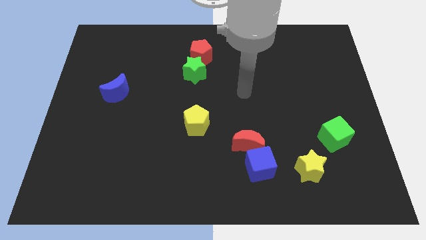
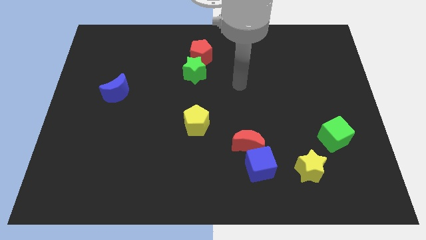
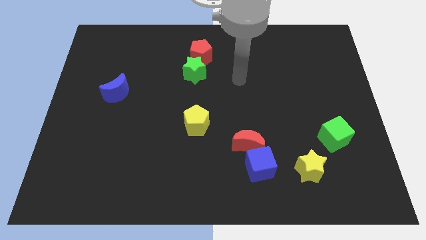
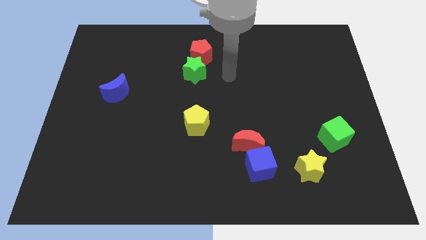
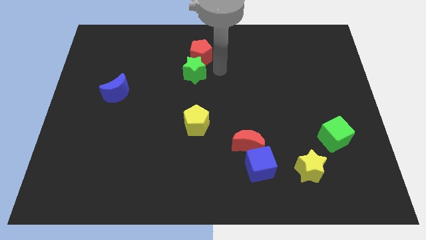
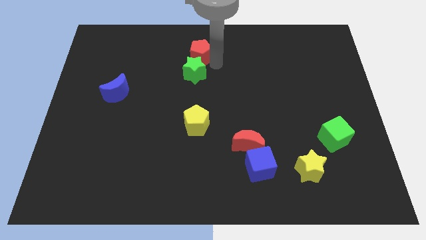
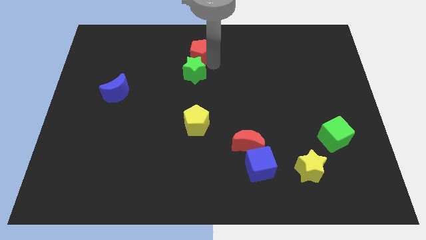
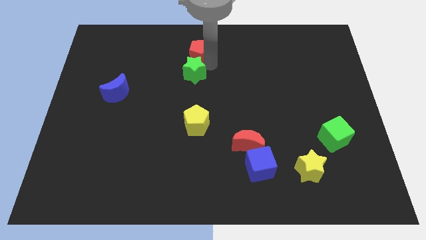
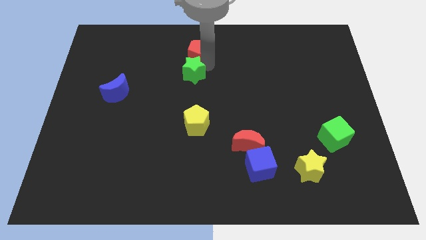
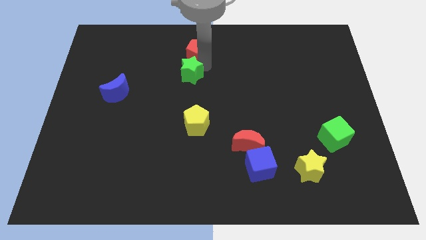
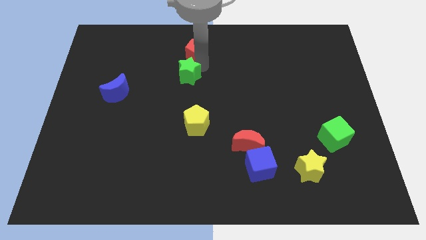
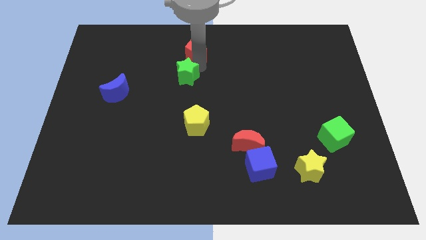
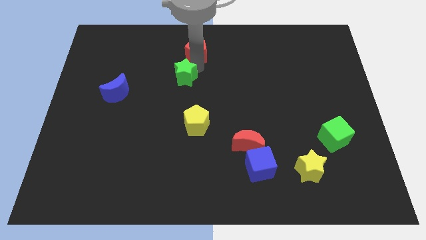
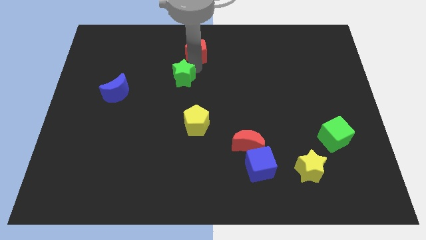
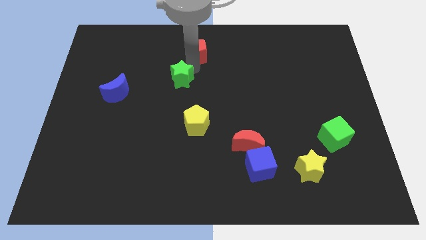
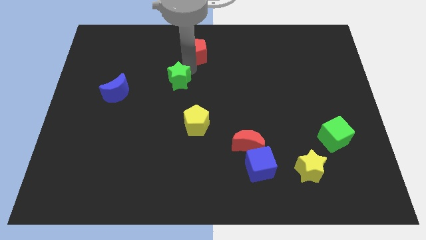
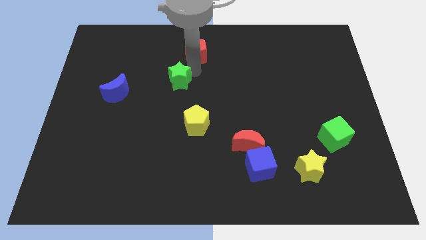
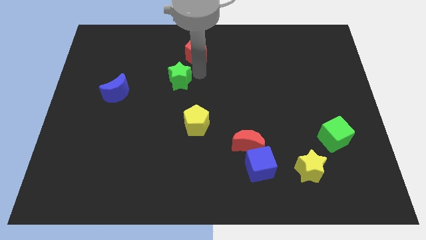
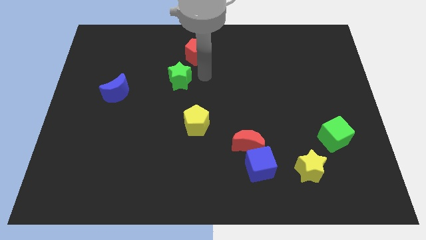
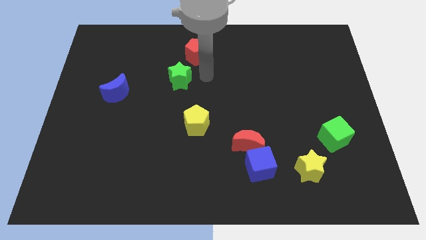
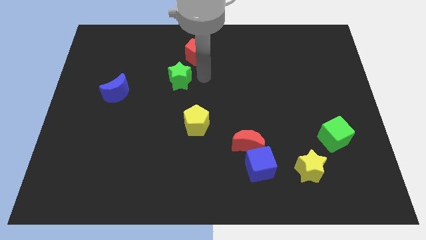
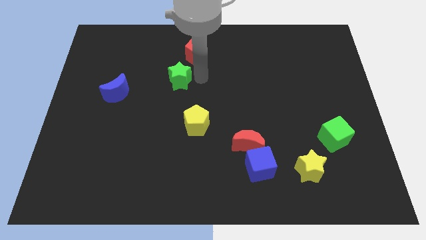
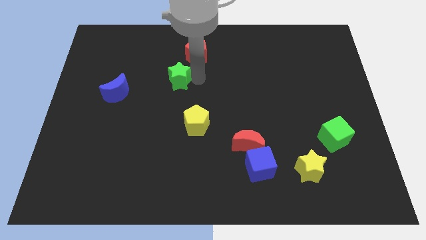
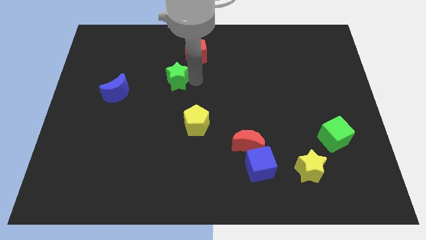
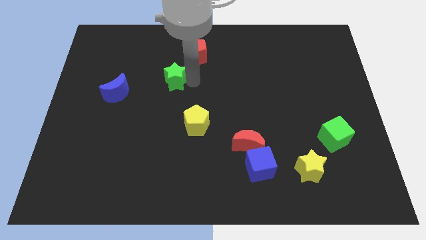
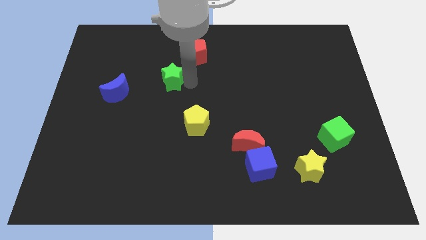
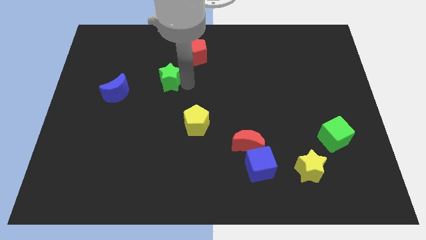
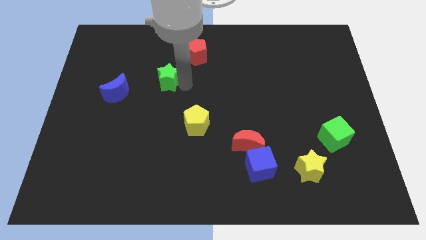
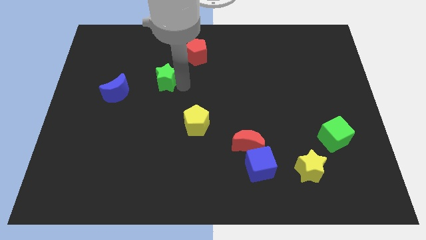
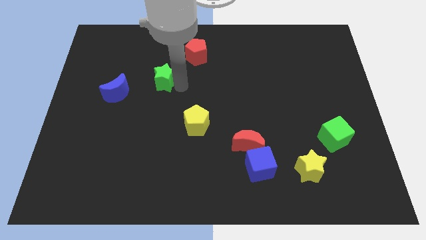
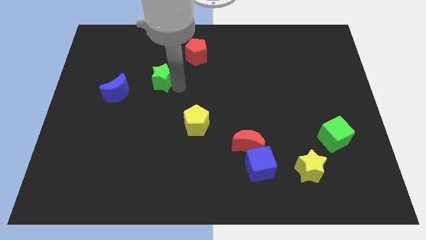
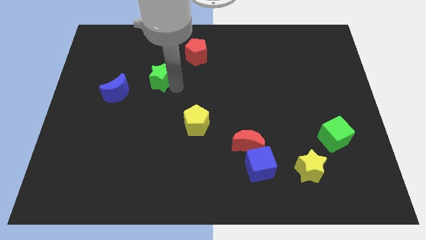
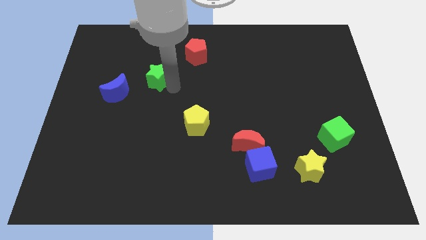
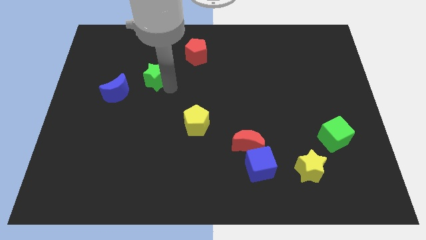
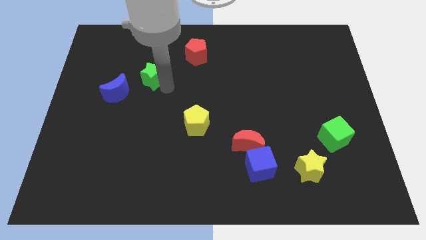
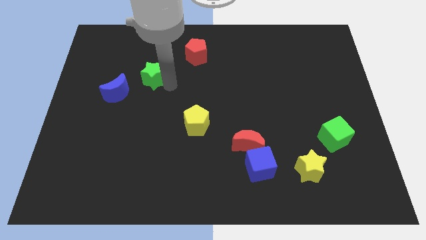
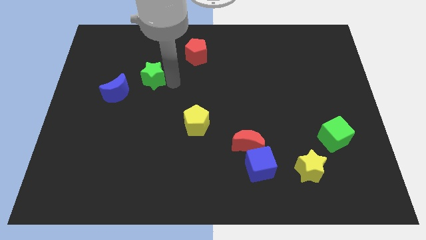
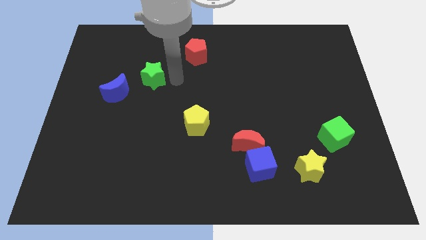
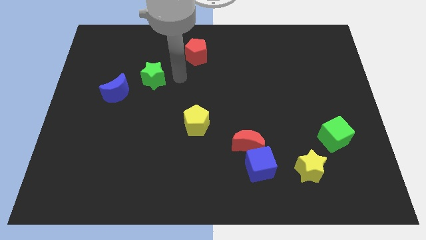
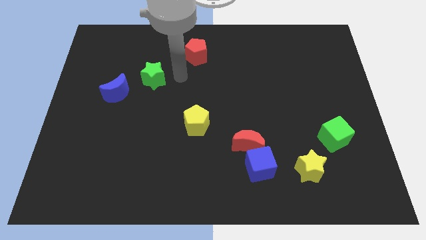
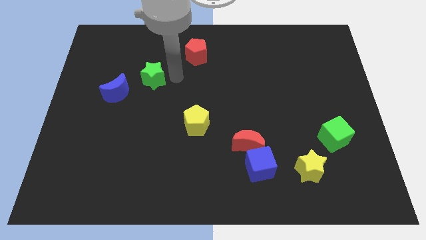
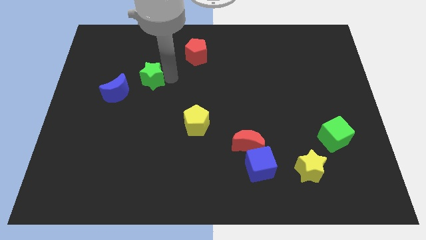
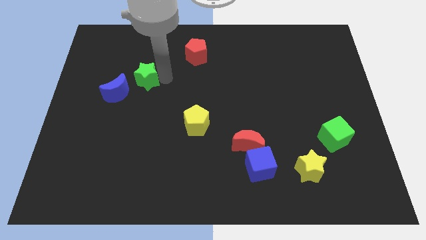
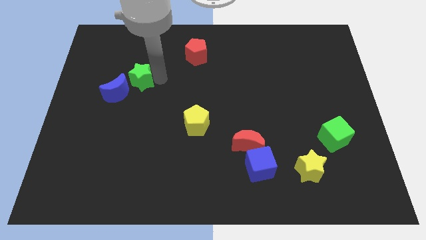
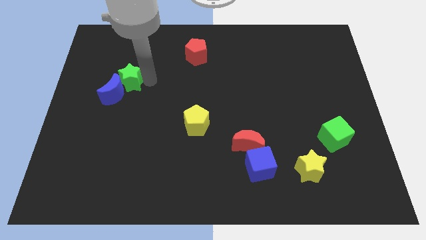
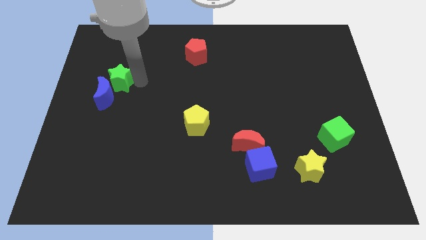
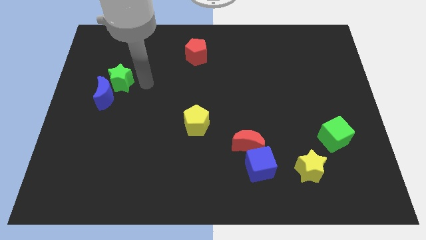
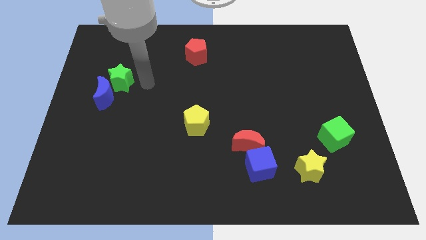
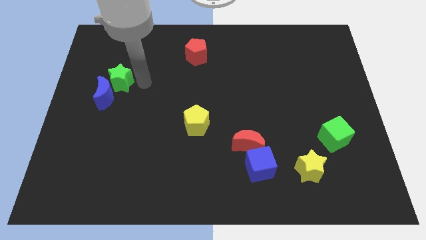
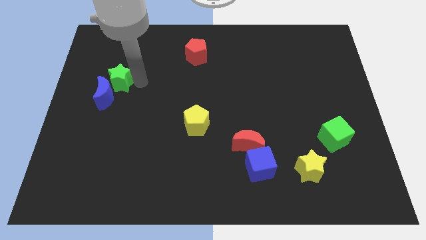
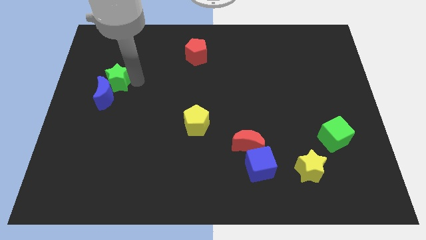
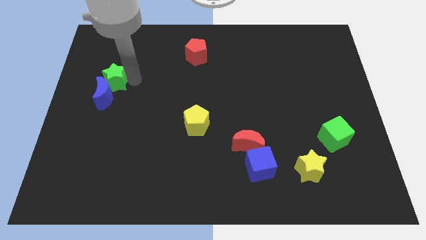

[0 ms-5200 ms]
push the green star diagonally up and to the left of the blue moon

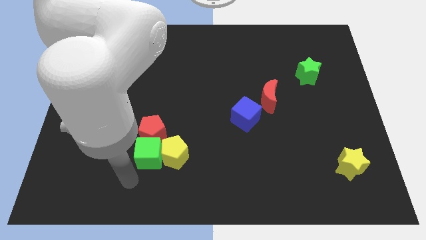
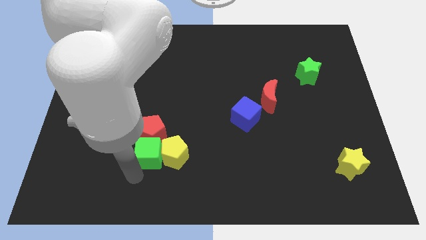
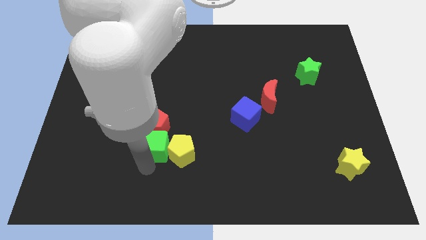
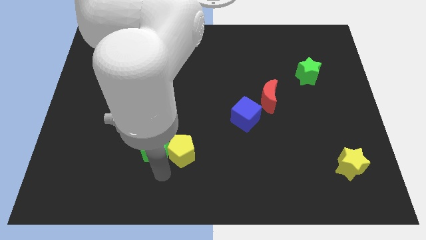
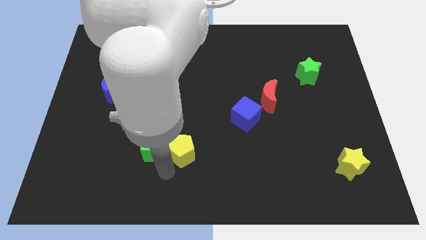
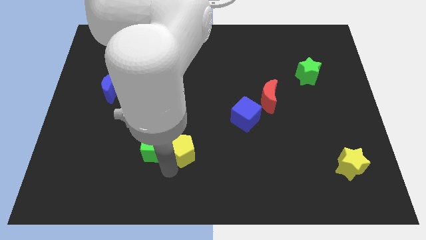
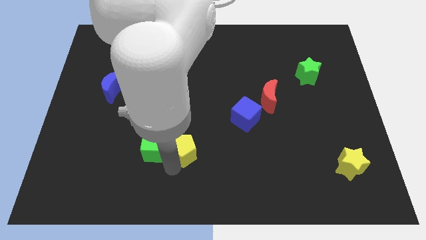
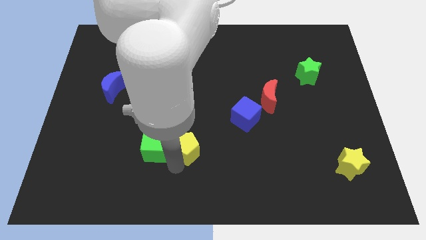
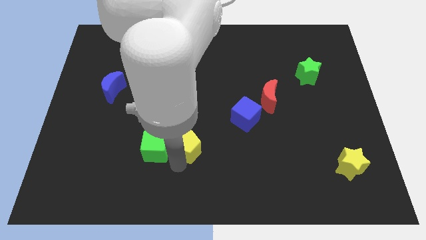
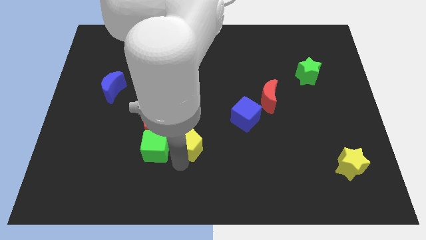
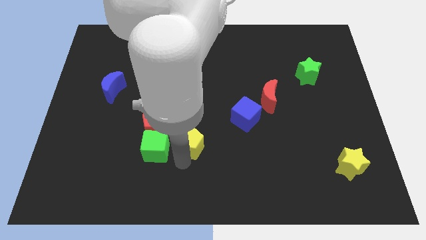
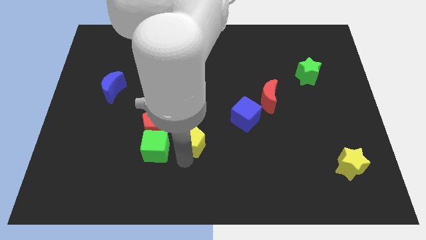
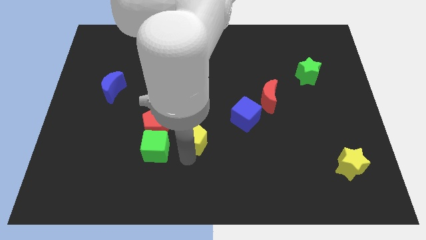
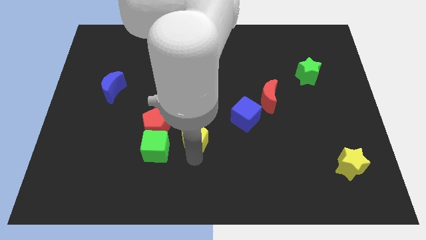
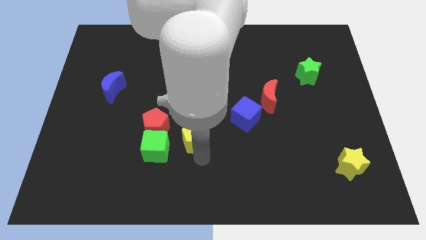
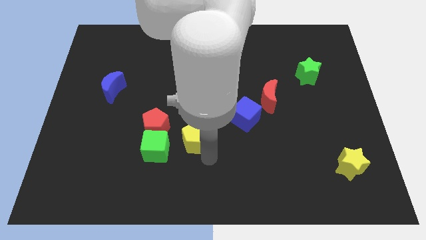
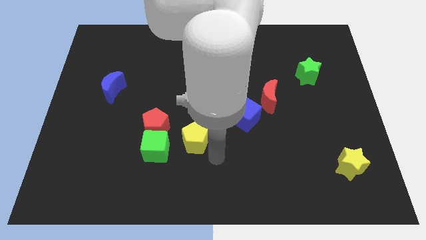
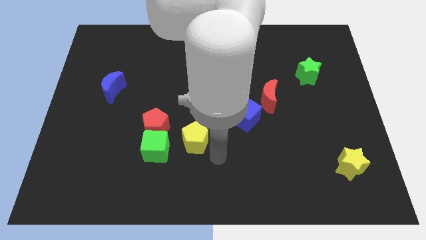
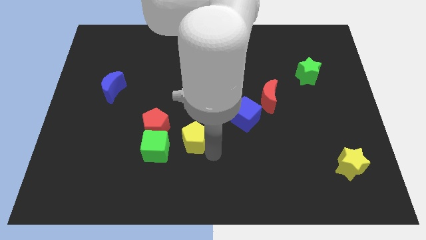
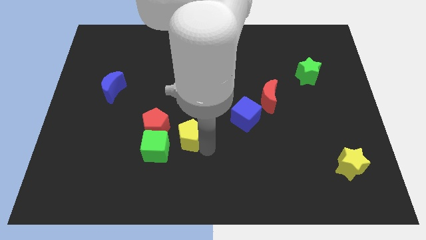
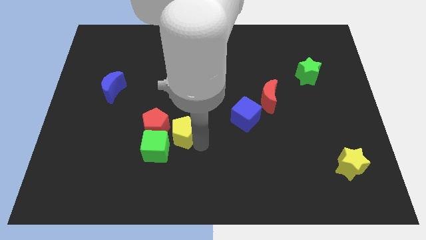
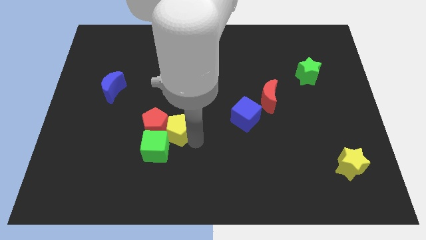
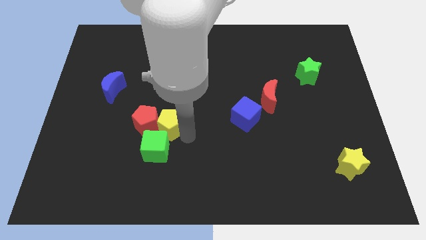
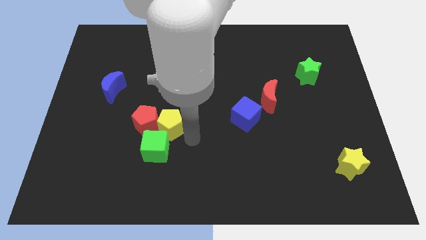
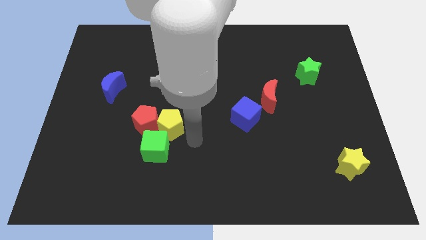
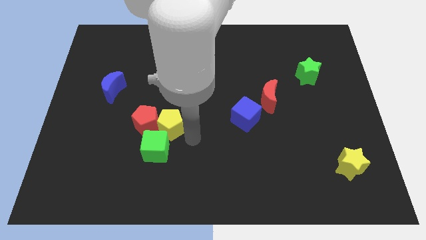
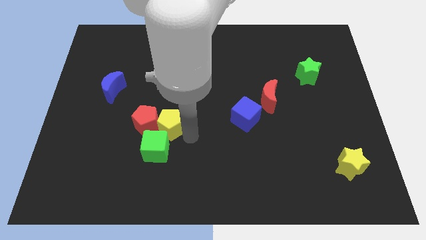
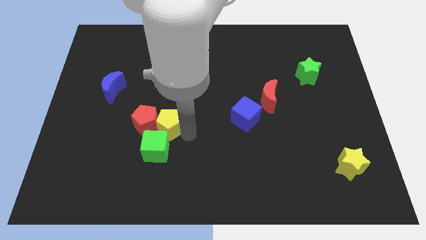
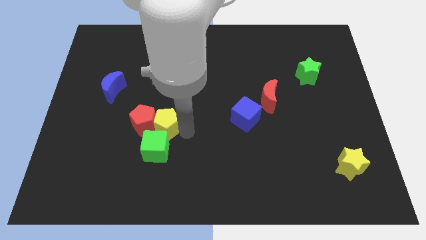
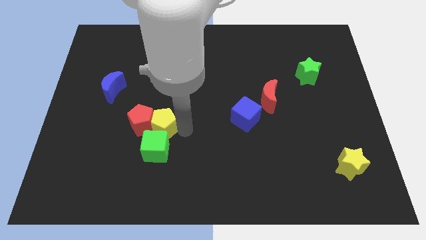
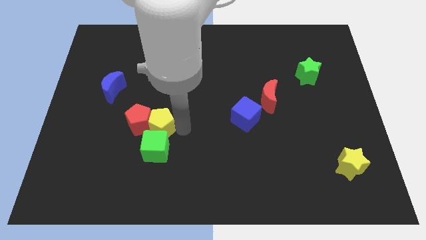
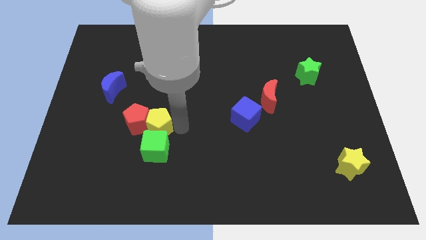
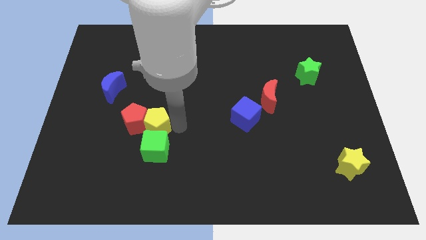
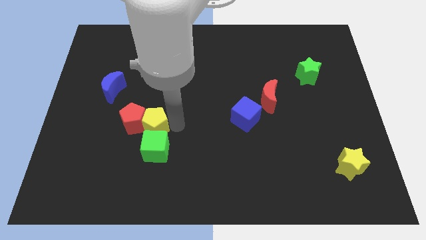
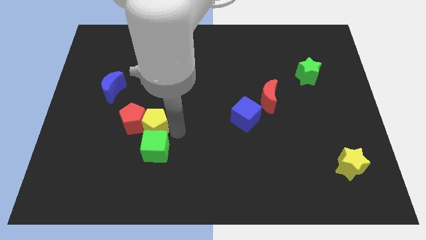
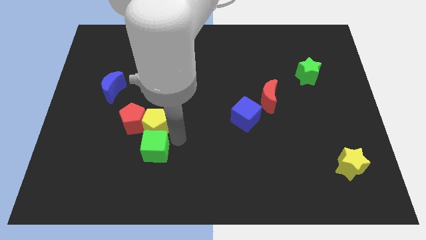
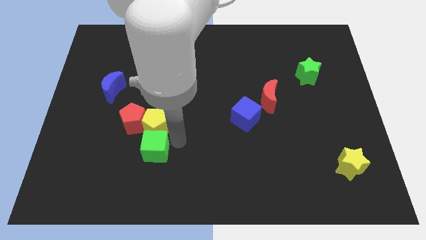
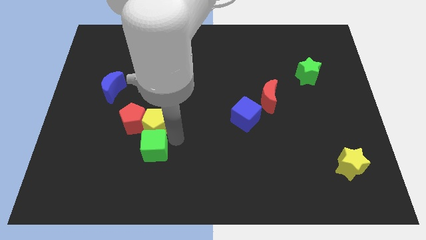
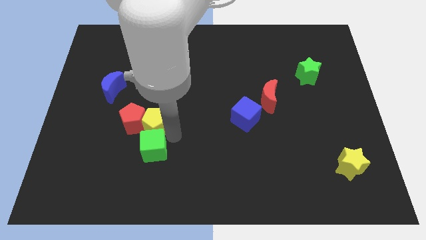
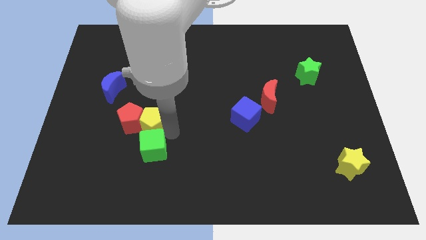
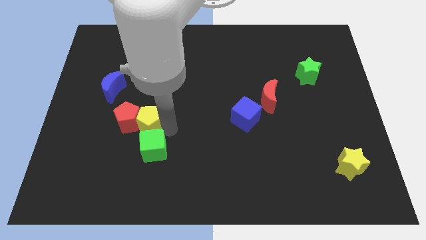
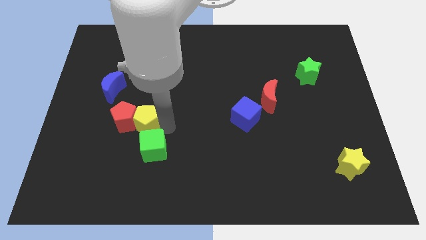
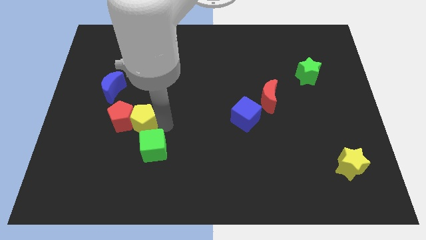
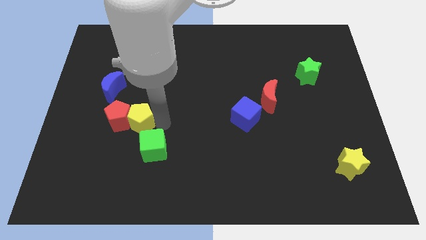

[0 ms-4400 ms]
slide the yellow pentagon to the bottom right of the blue moon
